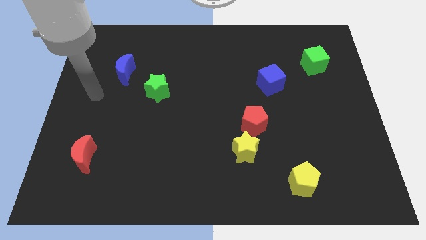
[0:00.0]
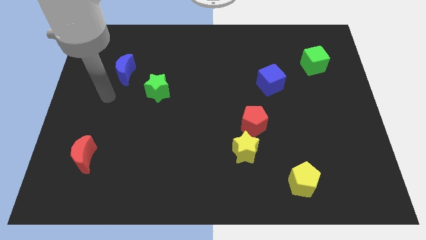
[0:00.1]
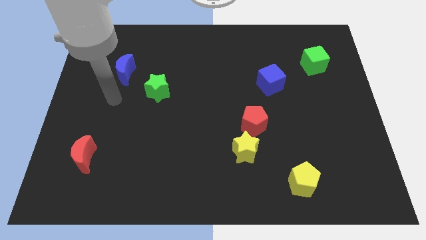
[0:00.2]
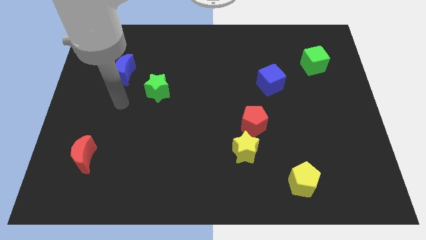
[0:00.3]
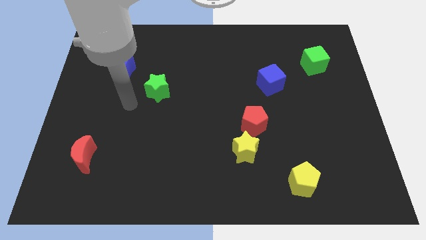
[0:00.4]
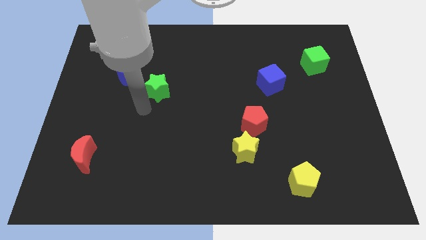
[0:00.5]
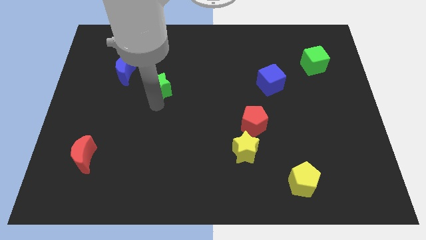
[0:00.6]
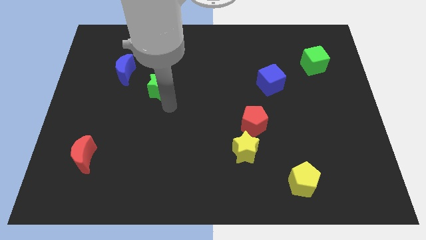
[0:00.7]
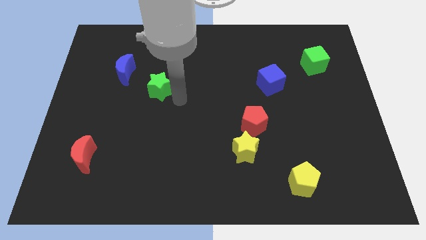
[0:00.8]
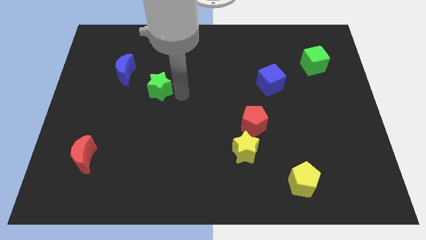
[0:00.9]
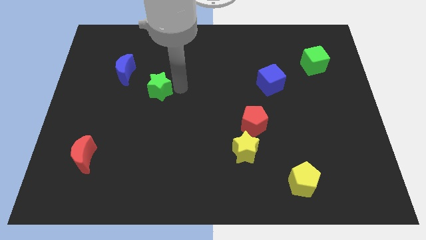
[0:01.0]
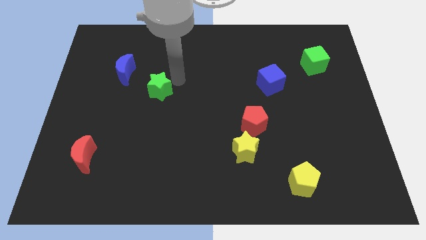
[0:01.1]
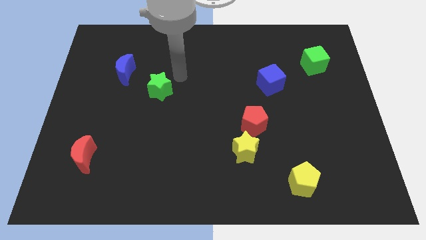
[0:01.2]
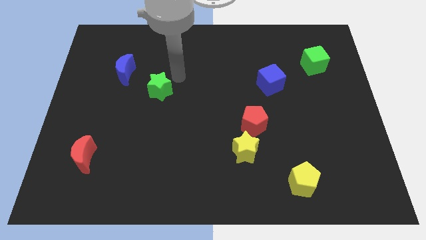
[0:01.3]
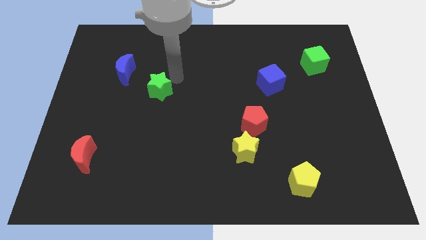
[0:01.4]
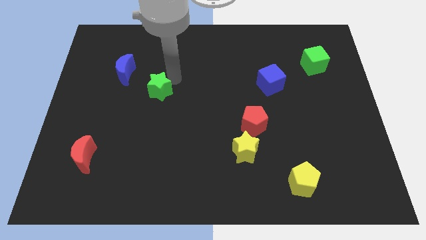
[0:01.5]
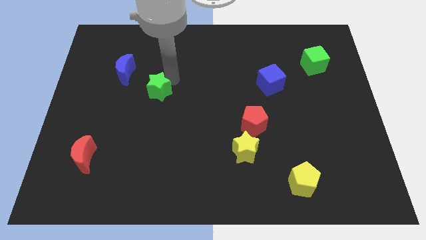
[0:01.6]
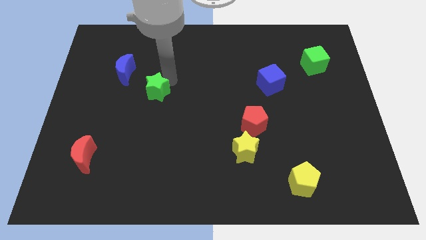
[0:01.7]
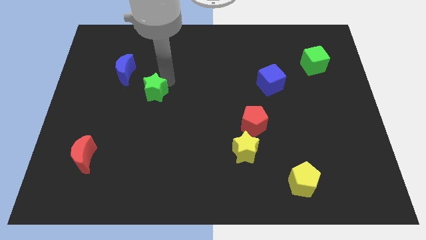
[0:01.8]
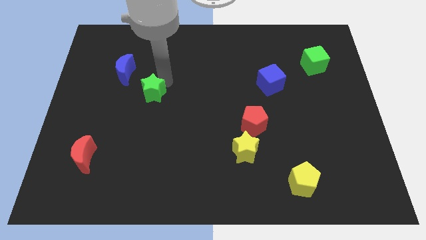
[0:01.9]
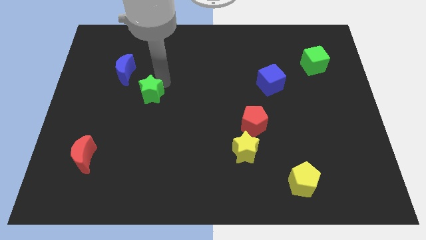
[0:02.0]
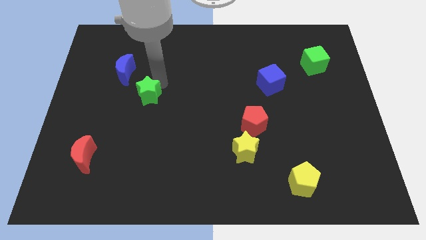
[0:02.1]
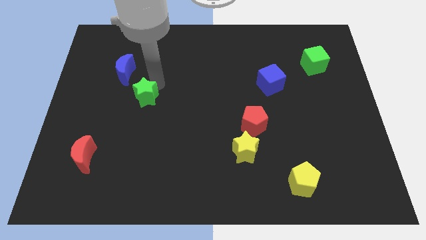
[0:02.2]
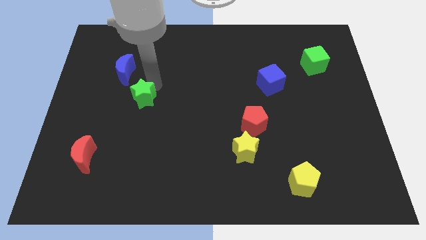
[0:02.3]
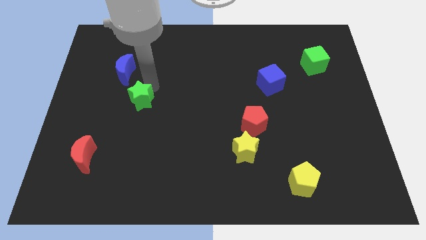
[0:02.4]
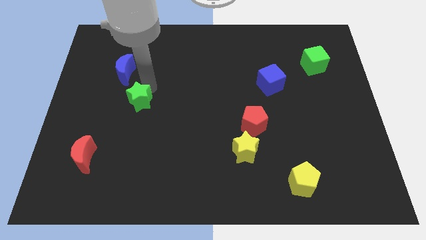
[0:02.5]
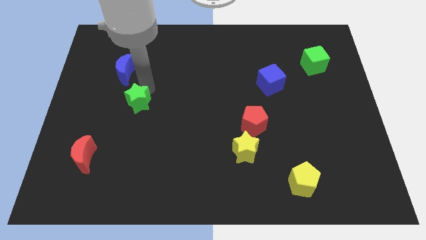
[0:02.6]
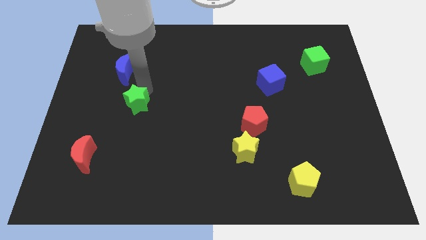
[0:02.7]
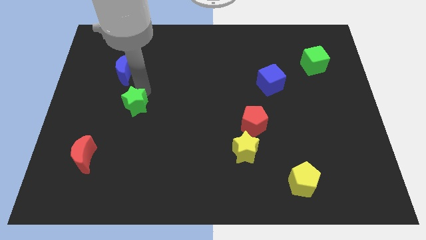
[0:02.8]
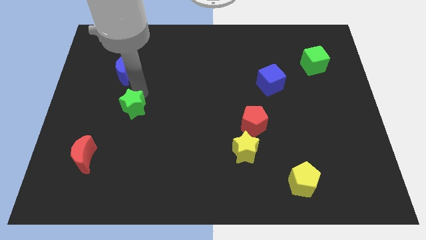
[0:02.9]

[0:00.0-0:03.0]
slightly push the green star downwards and to the left diagonally

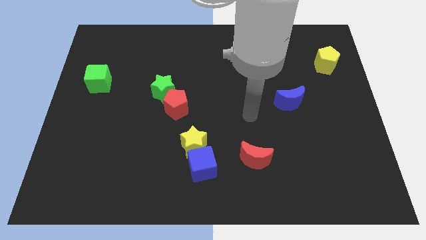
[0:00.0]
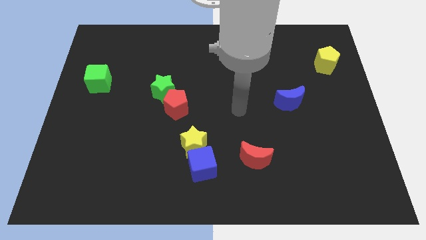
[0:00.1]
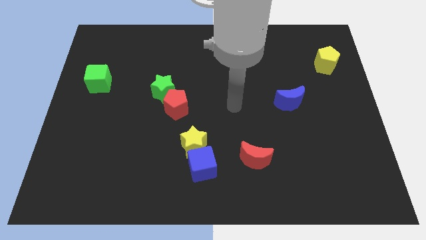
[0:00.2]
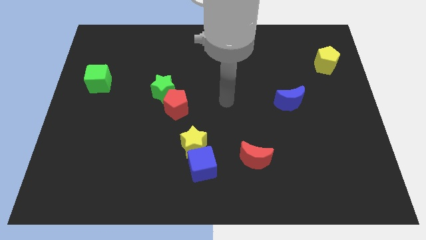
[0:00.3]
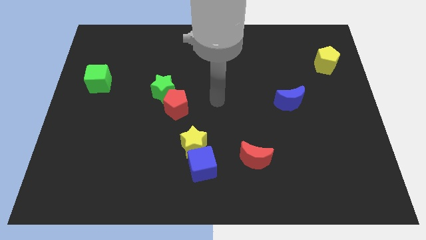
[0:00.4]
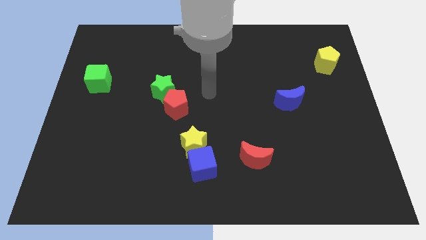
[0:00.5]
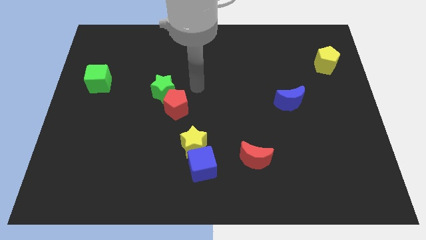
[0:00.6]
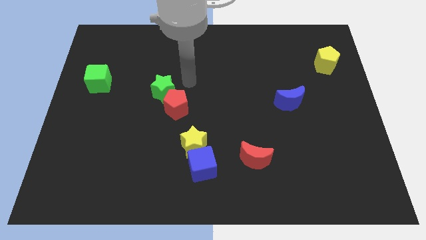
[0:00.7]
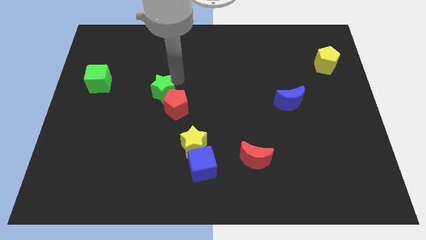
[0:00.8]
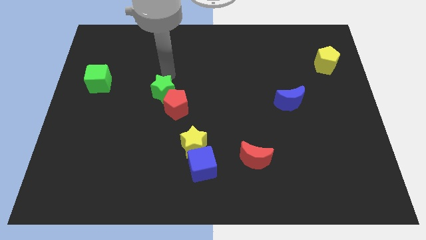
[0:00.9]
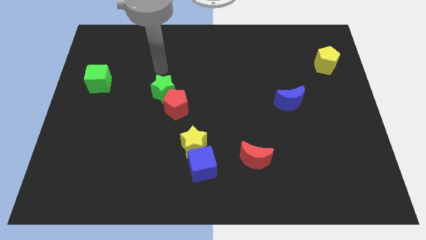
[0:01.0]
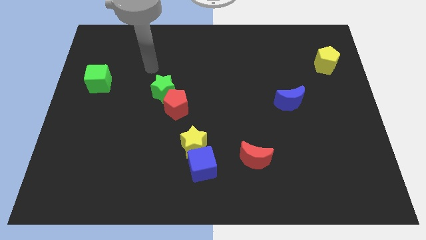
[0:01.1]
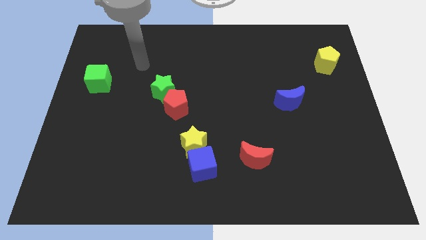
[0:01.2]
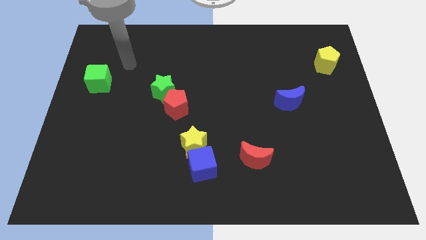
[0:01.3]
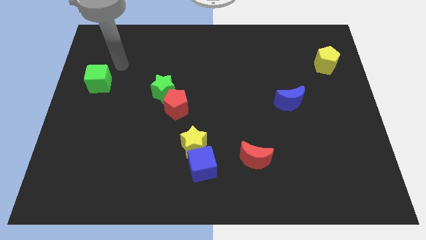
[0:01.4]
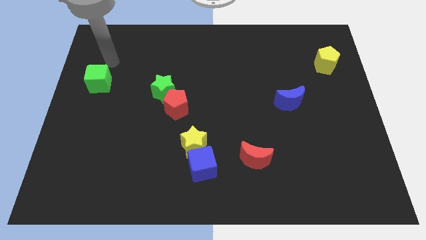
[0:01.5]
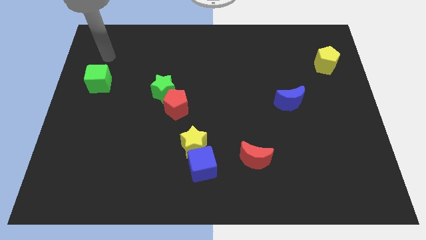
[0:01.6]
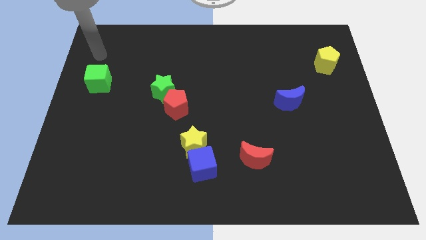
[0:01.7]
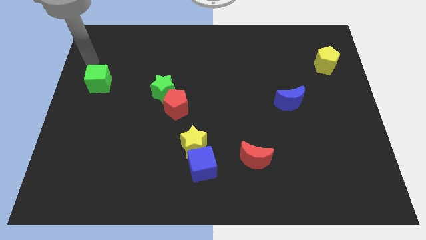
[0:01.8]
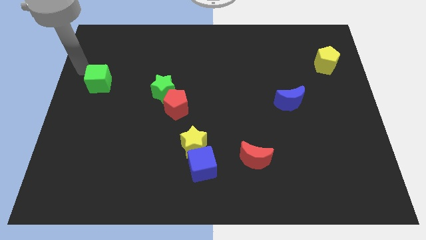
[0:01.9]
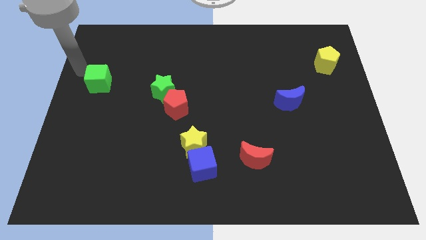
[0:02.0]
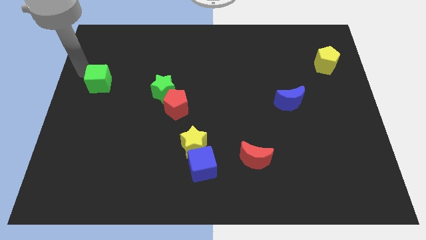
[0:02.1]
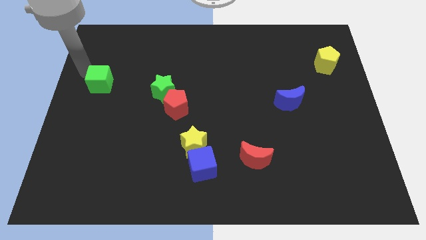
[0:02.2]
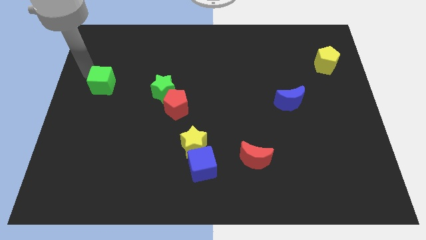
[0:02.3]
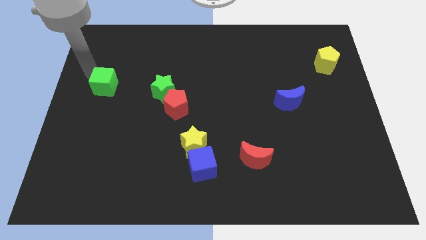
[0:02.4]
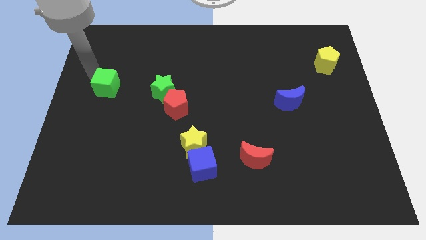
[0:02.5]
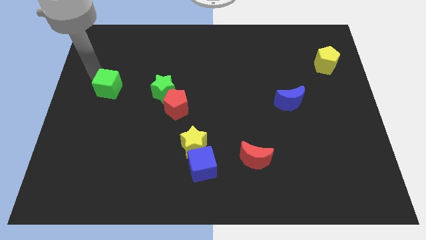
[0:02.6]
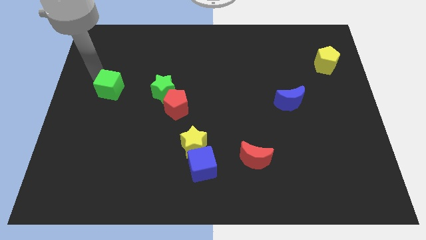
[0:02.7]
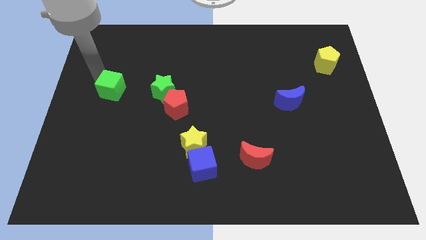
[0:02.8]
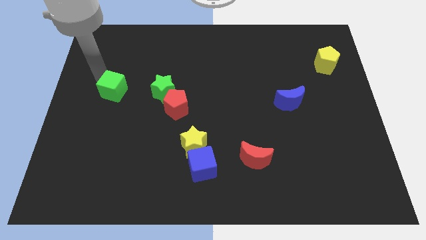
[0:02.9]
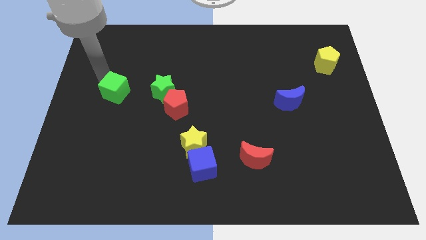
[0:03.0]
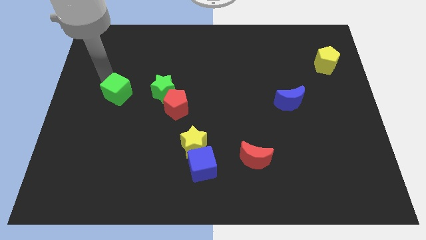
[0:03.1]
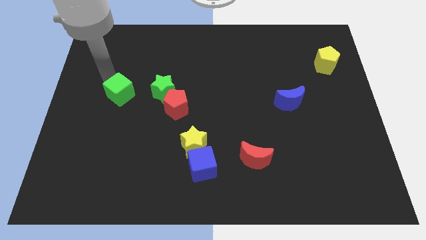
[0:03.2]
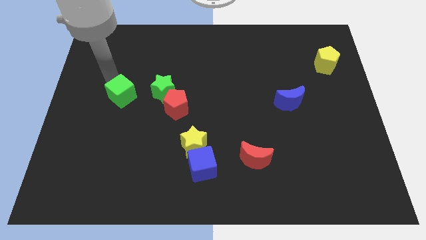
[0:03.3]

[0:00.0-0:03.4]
slightly move the green cube diagonally down and right

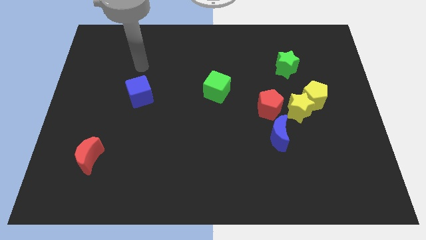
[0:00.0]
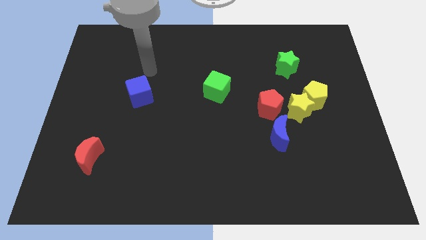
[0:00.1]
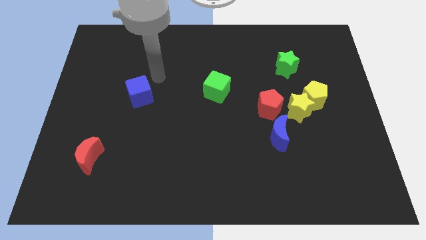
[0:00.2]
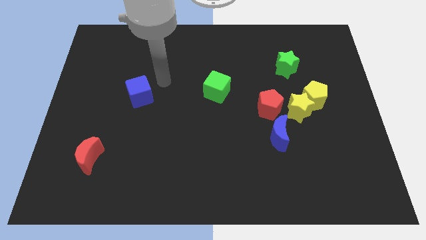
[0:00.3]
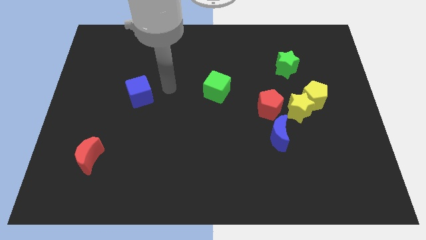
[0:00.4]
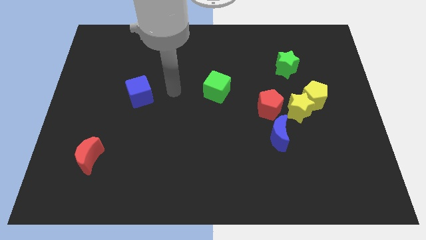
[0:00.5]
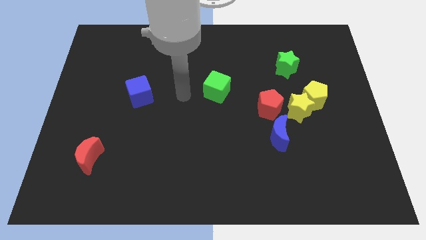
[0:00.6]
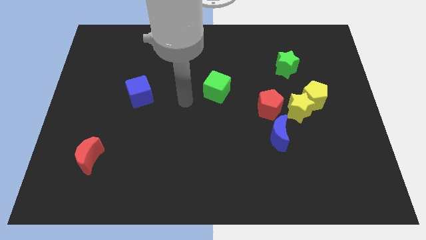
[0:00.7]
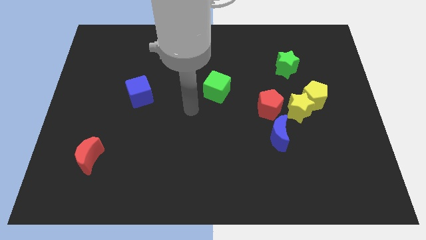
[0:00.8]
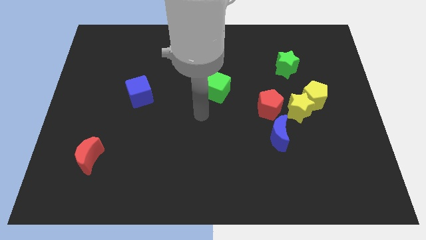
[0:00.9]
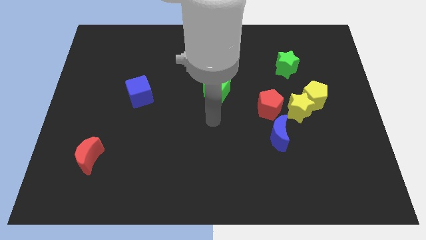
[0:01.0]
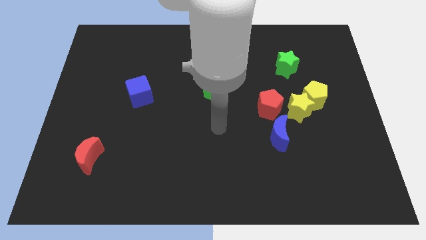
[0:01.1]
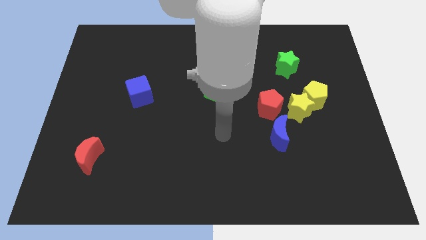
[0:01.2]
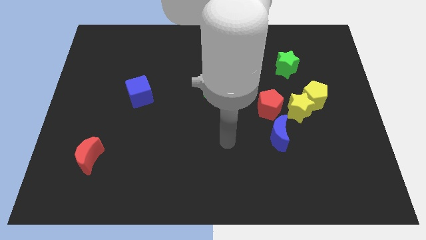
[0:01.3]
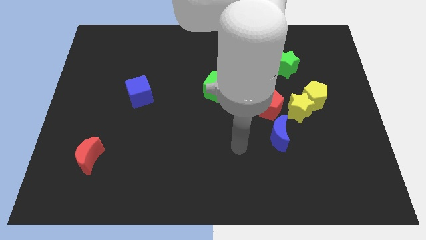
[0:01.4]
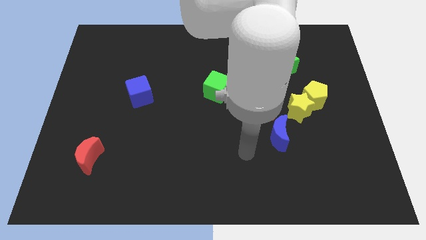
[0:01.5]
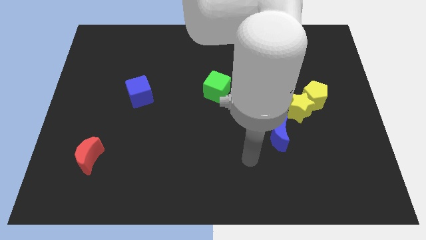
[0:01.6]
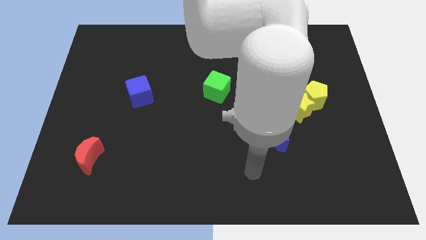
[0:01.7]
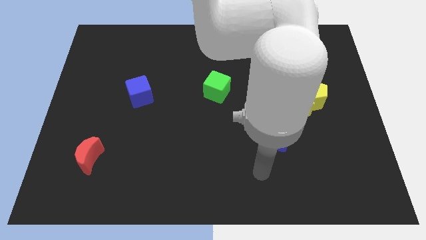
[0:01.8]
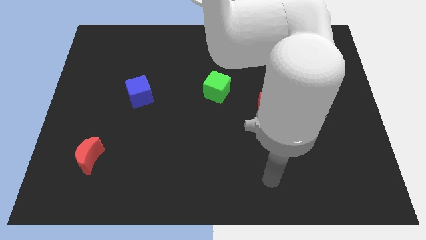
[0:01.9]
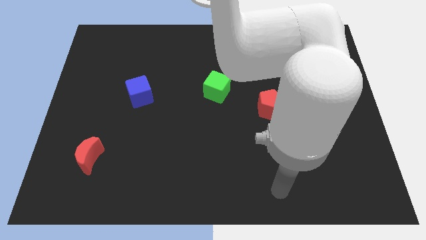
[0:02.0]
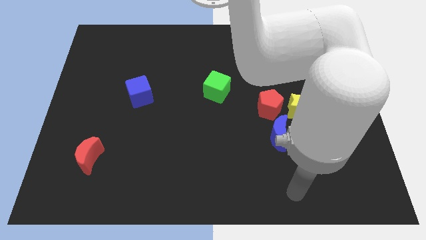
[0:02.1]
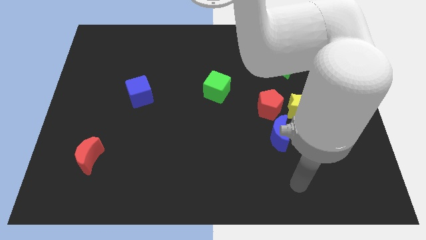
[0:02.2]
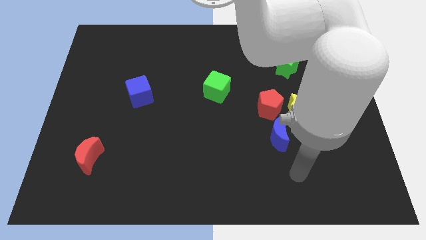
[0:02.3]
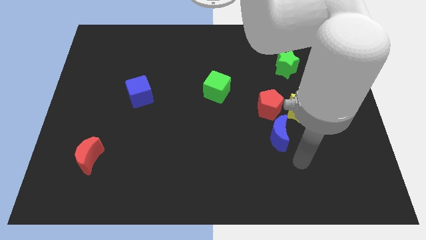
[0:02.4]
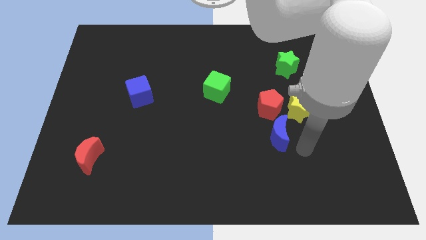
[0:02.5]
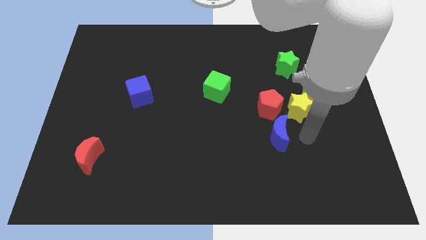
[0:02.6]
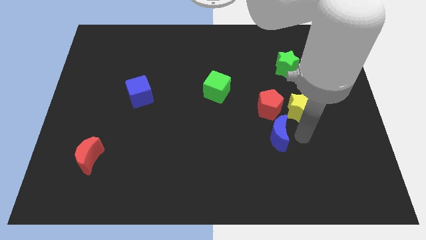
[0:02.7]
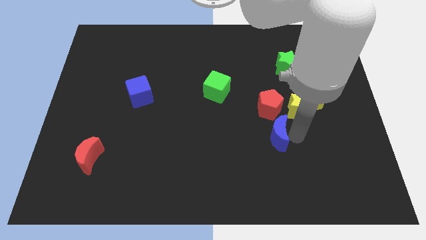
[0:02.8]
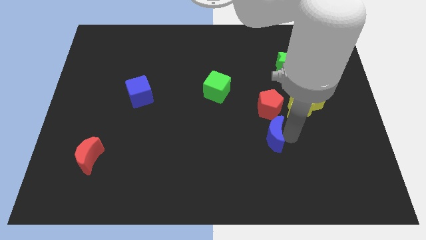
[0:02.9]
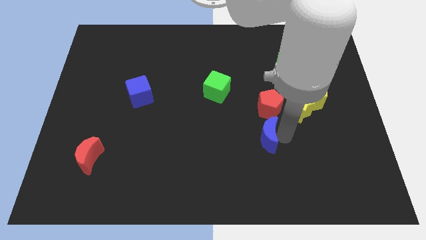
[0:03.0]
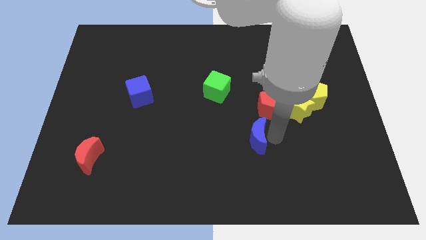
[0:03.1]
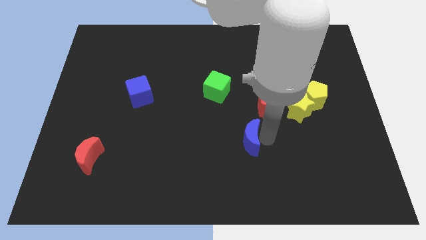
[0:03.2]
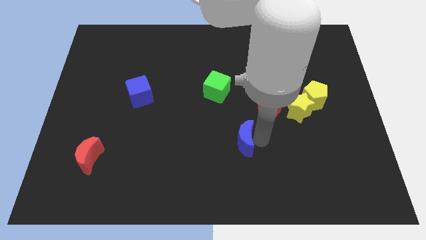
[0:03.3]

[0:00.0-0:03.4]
move the blue moon slightly to the left
